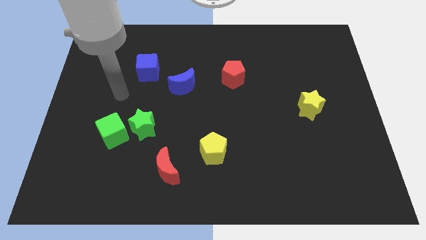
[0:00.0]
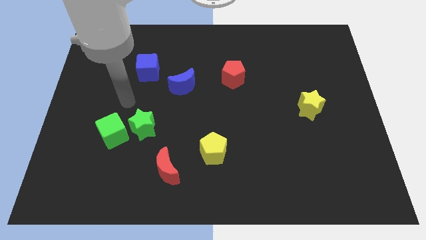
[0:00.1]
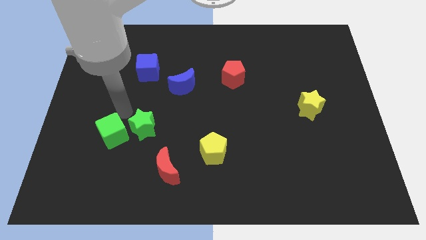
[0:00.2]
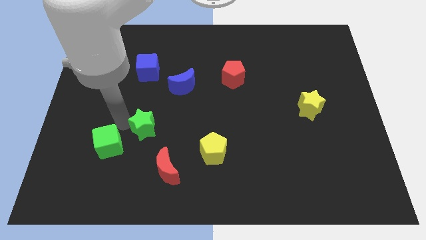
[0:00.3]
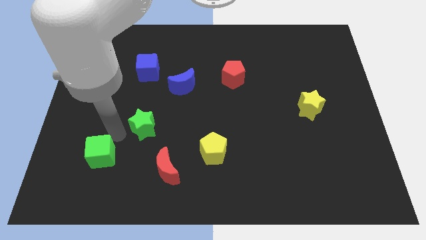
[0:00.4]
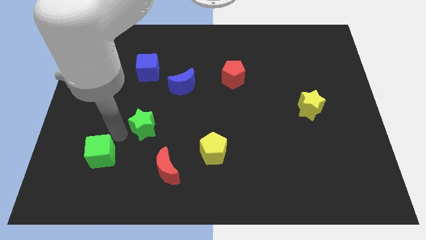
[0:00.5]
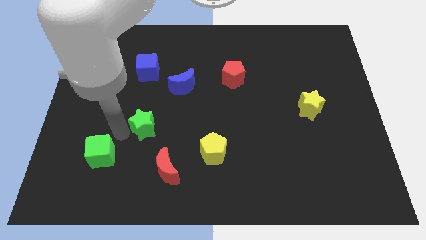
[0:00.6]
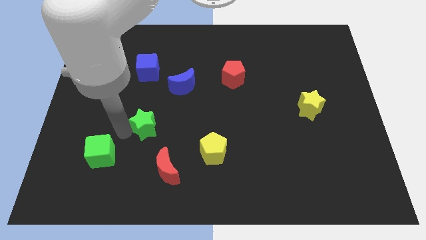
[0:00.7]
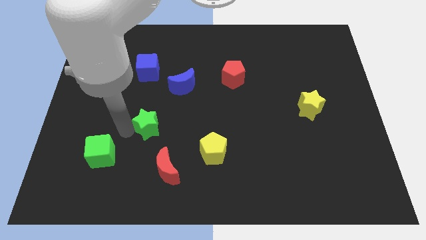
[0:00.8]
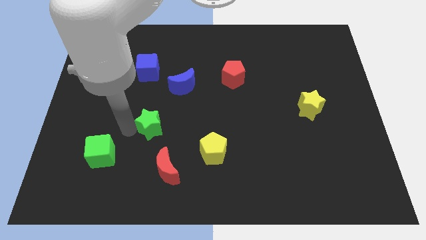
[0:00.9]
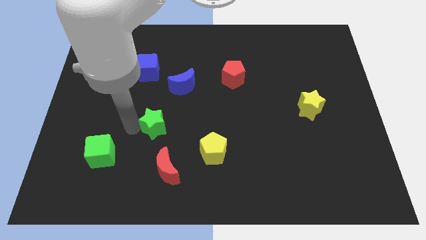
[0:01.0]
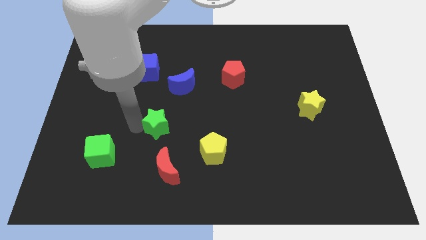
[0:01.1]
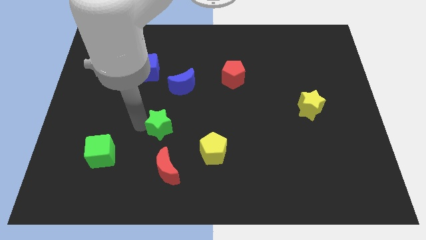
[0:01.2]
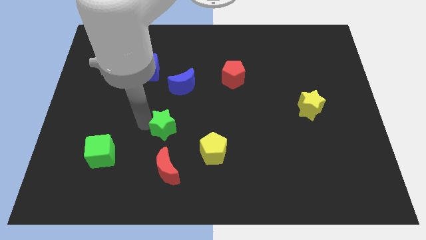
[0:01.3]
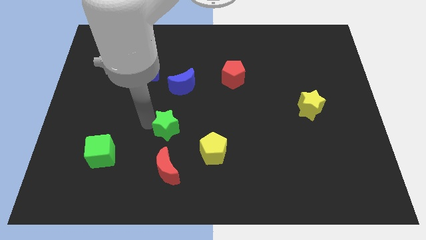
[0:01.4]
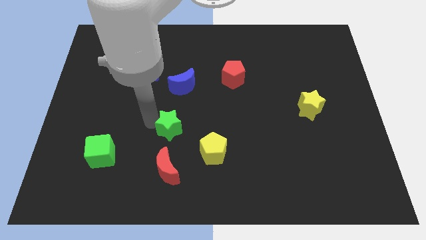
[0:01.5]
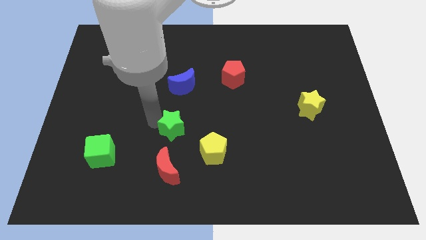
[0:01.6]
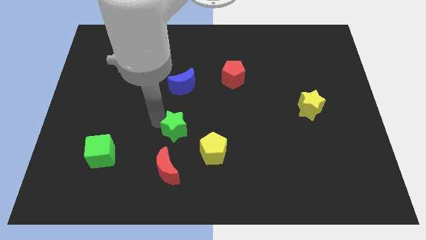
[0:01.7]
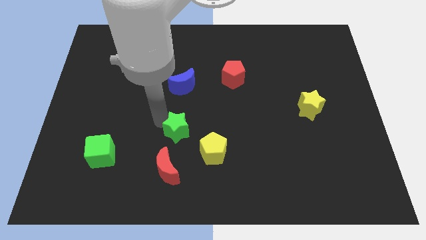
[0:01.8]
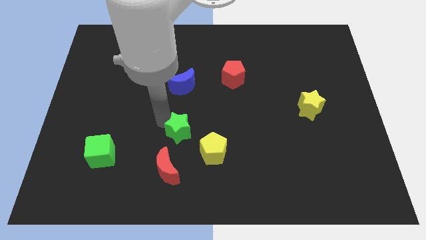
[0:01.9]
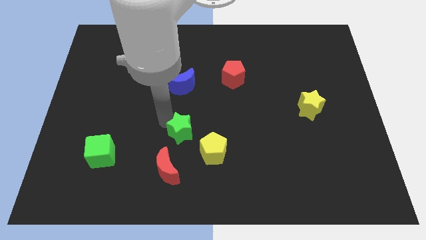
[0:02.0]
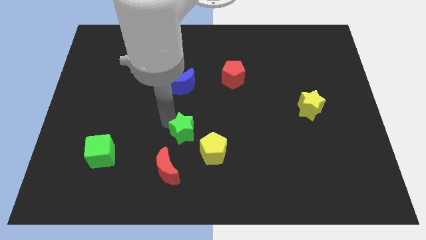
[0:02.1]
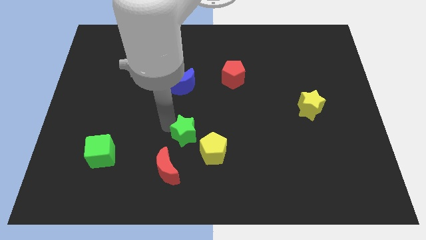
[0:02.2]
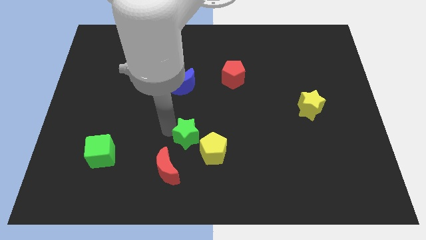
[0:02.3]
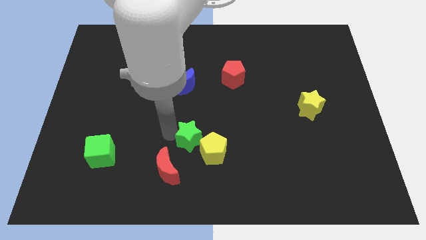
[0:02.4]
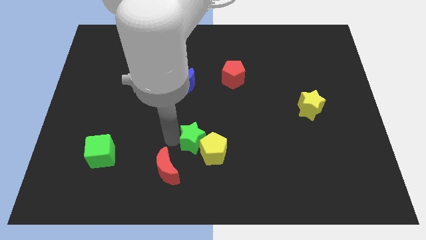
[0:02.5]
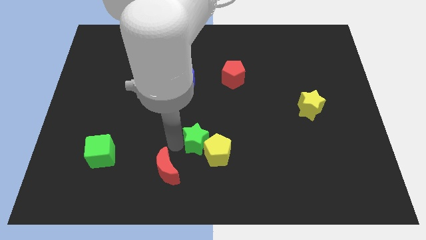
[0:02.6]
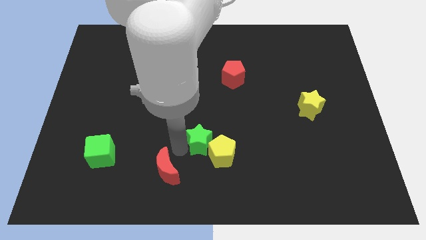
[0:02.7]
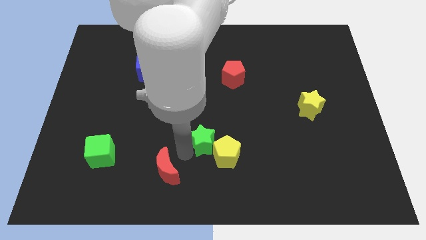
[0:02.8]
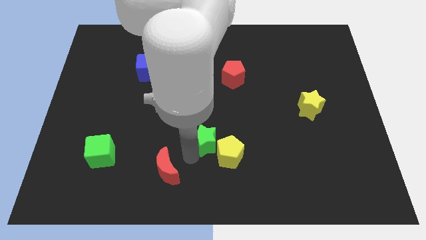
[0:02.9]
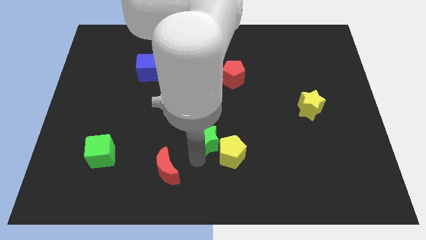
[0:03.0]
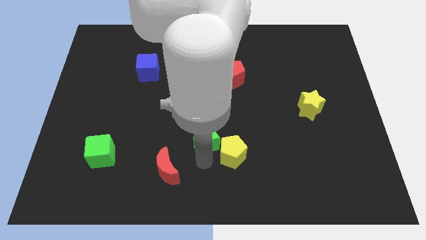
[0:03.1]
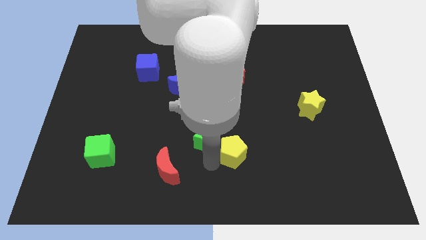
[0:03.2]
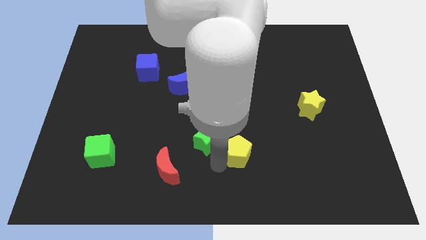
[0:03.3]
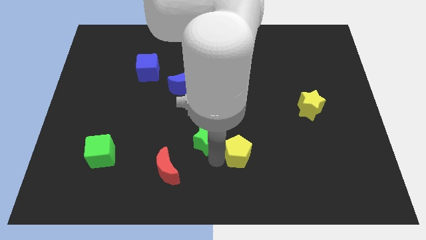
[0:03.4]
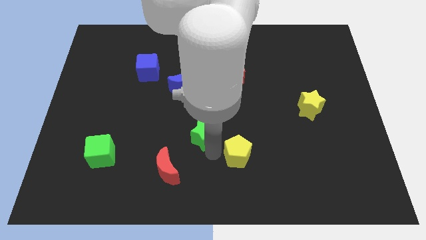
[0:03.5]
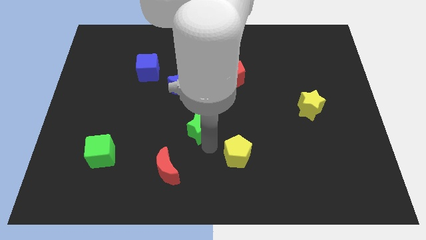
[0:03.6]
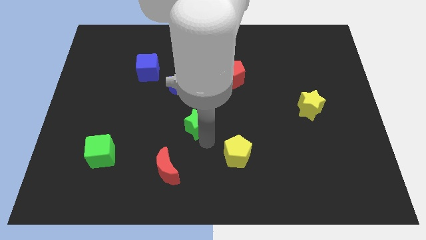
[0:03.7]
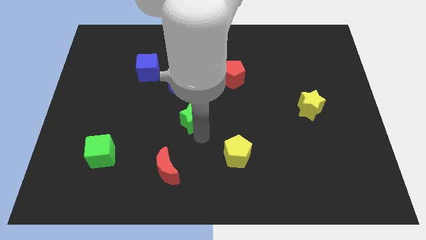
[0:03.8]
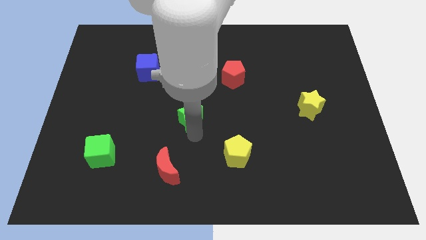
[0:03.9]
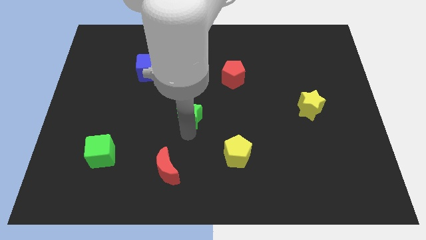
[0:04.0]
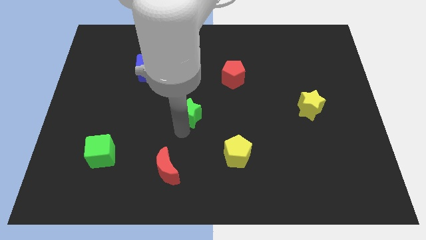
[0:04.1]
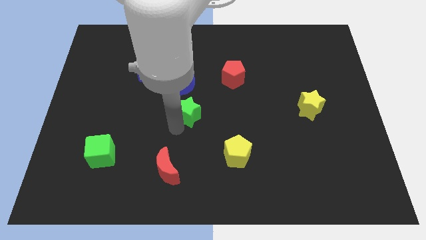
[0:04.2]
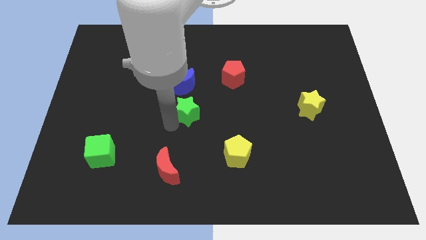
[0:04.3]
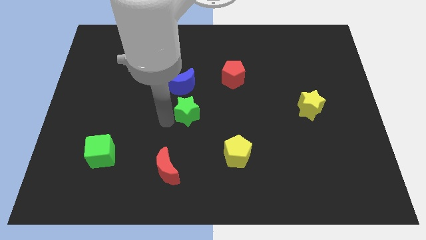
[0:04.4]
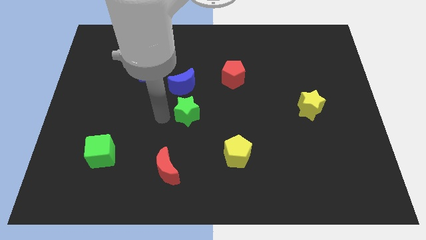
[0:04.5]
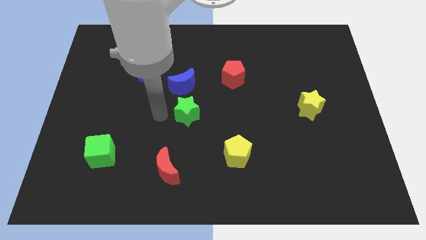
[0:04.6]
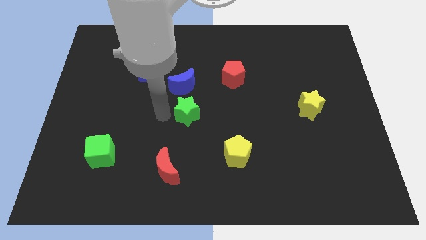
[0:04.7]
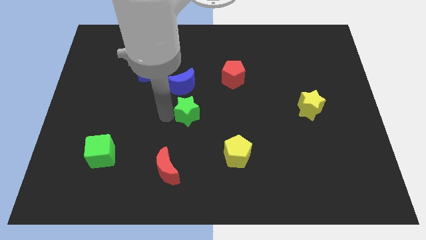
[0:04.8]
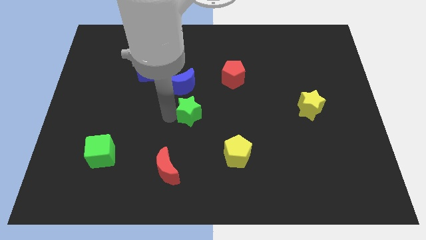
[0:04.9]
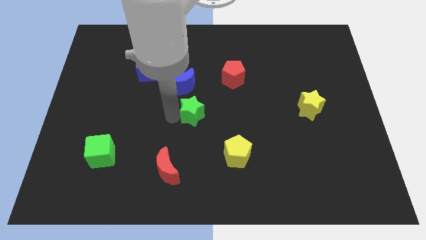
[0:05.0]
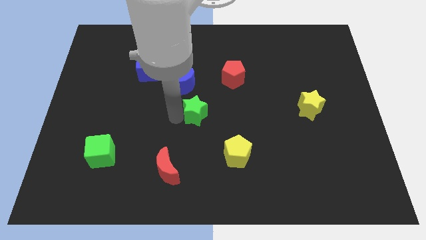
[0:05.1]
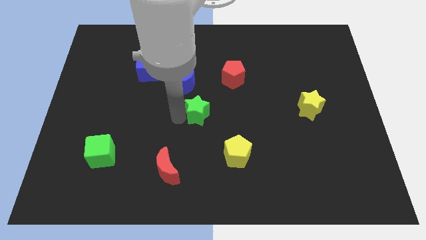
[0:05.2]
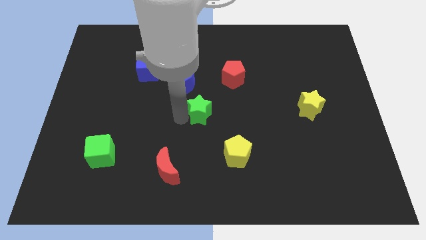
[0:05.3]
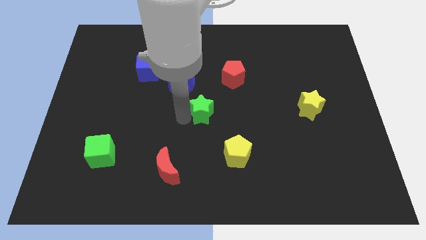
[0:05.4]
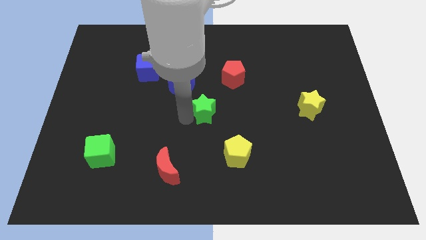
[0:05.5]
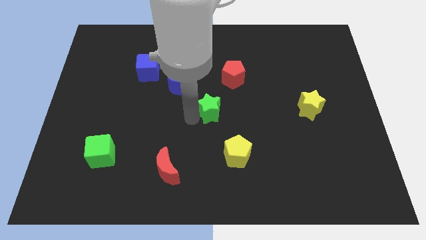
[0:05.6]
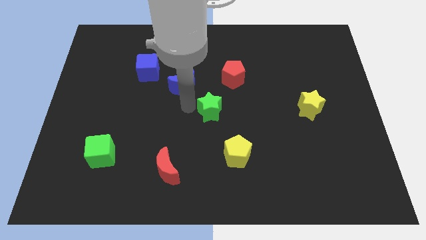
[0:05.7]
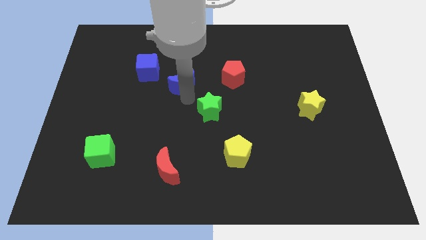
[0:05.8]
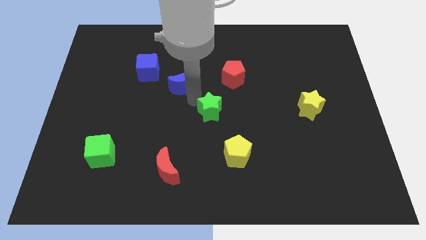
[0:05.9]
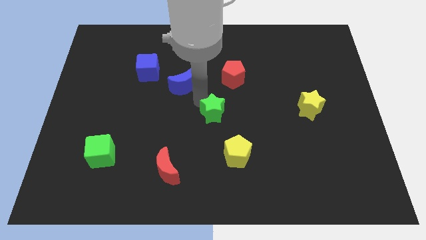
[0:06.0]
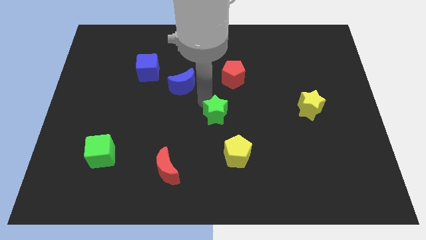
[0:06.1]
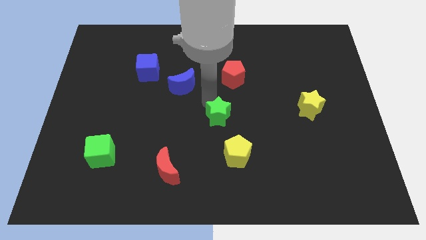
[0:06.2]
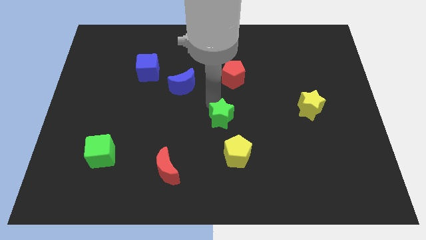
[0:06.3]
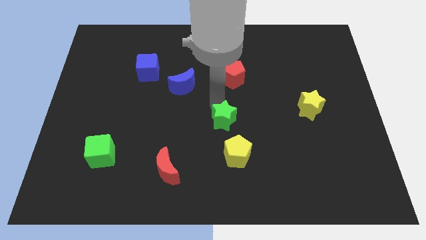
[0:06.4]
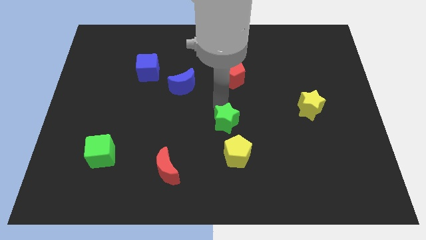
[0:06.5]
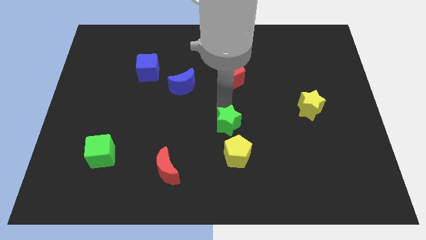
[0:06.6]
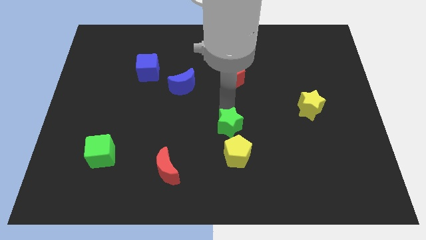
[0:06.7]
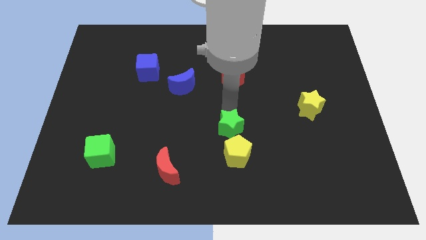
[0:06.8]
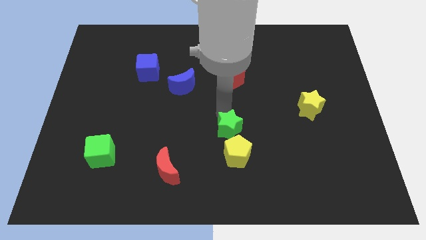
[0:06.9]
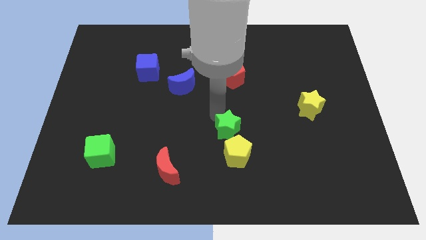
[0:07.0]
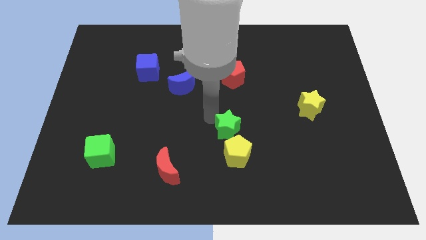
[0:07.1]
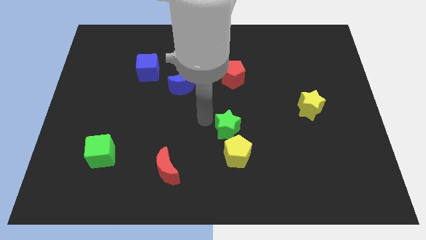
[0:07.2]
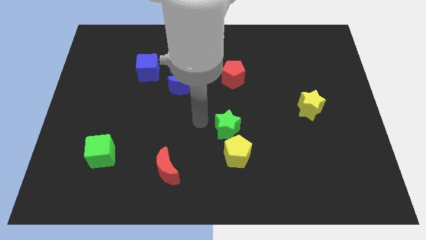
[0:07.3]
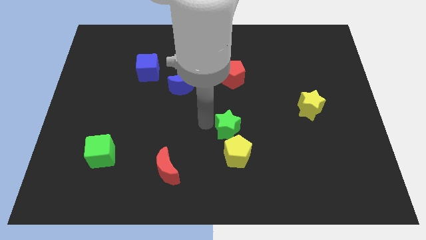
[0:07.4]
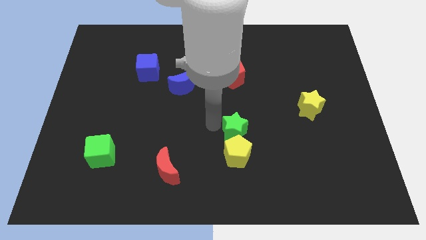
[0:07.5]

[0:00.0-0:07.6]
move the green star diagonally up and to the right of the yellow pentagon

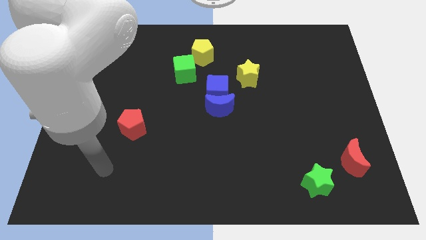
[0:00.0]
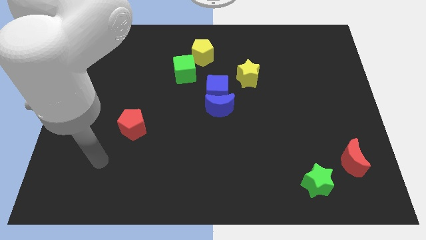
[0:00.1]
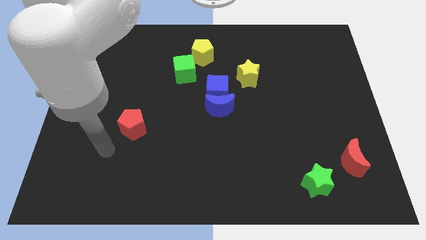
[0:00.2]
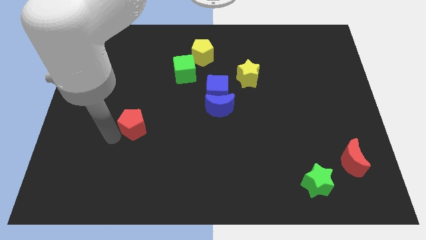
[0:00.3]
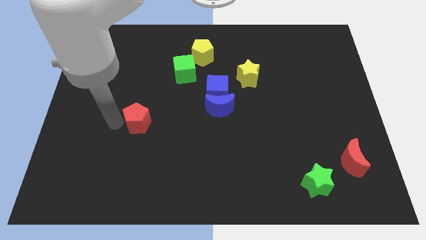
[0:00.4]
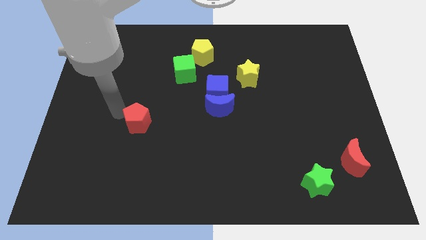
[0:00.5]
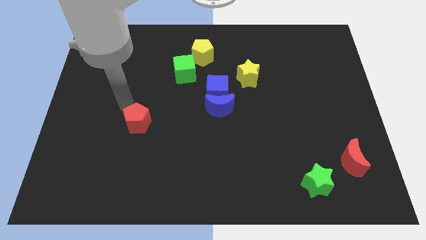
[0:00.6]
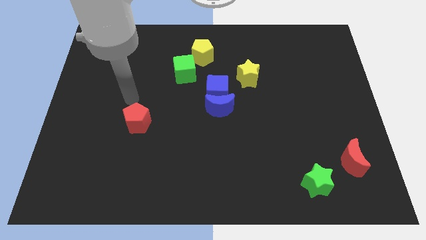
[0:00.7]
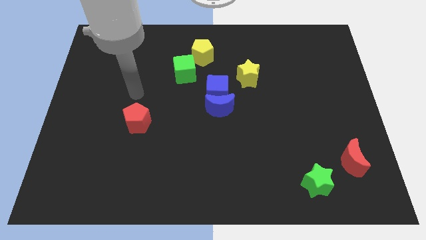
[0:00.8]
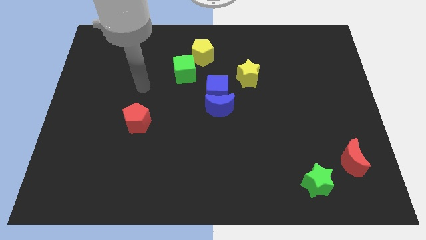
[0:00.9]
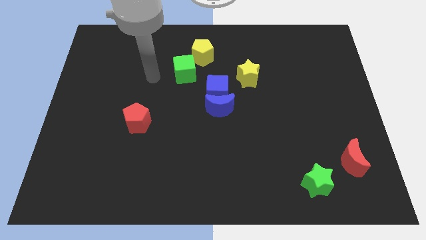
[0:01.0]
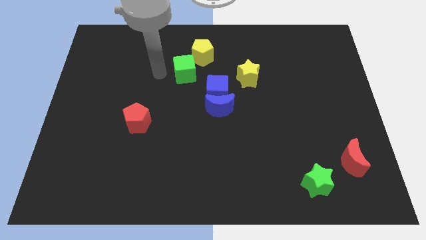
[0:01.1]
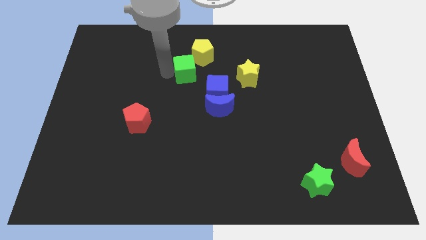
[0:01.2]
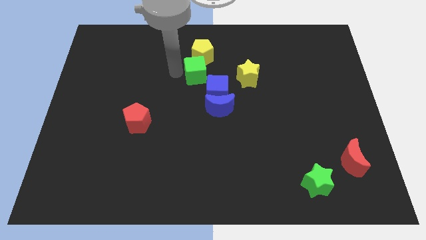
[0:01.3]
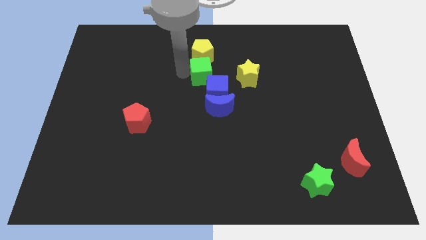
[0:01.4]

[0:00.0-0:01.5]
slide the green cube diagonally down and to the right of the yellow pentagon
